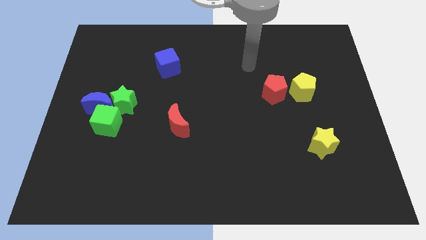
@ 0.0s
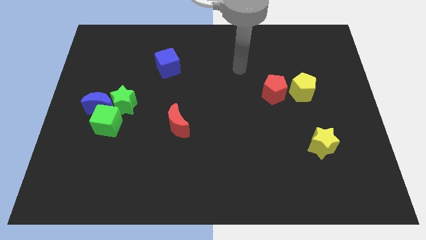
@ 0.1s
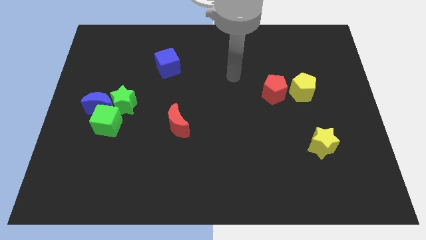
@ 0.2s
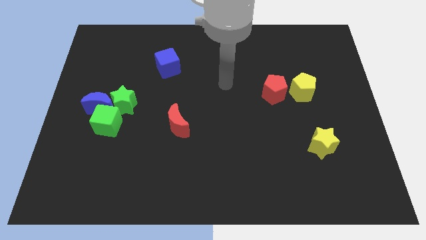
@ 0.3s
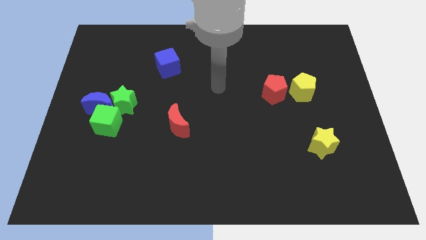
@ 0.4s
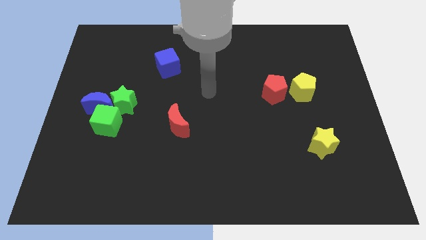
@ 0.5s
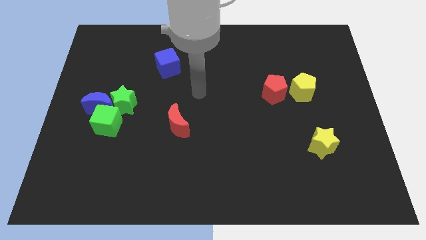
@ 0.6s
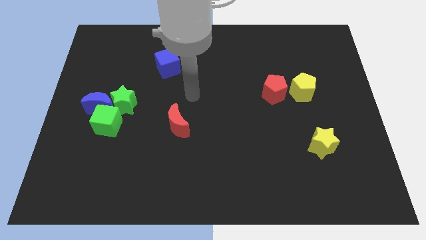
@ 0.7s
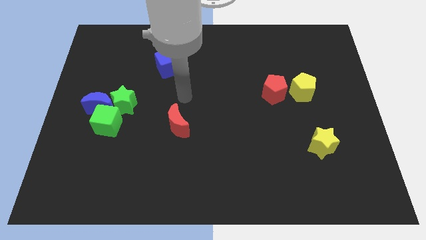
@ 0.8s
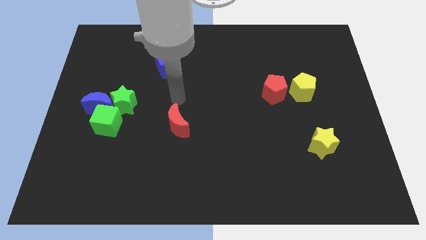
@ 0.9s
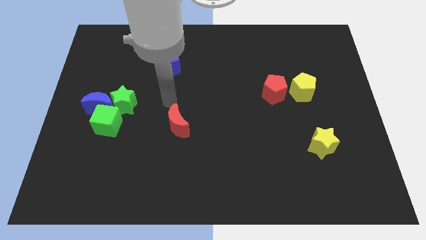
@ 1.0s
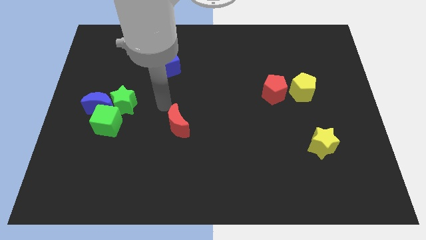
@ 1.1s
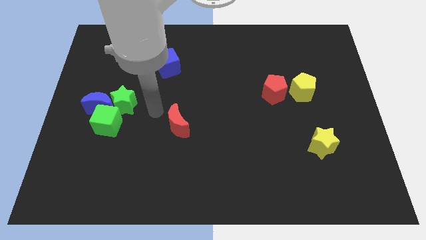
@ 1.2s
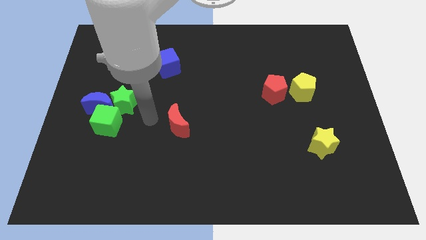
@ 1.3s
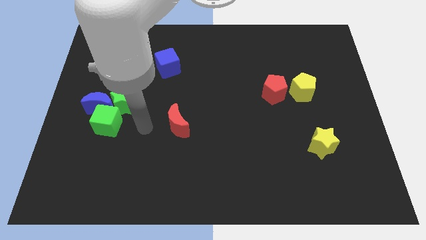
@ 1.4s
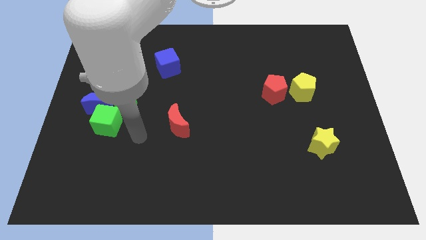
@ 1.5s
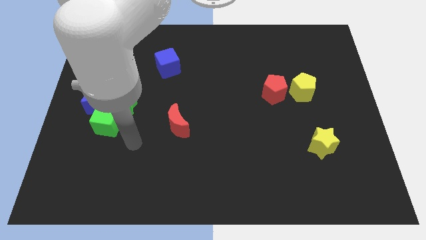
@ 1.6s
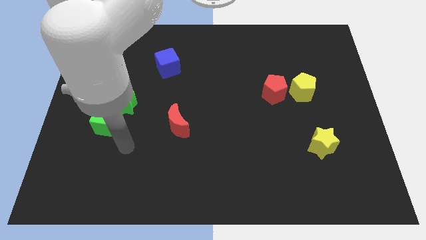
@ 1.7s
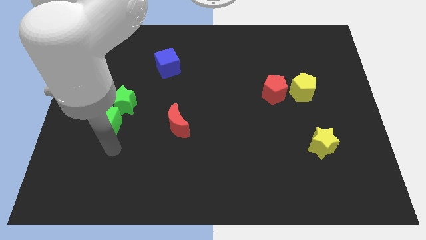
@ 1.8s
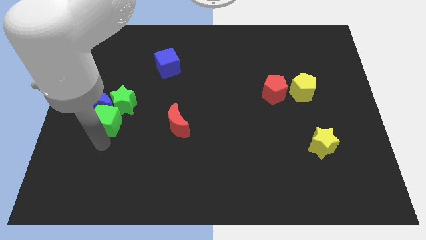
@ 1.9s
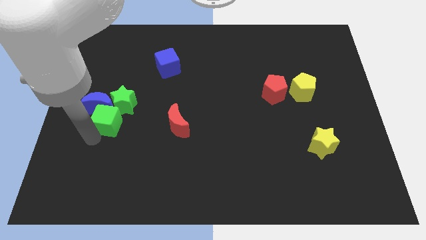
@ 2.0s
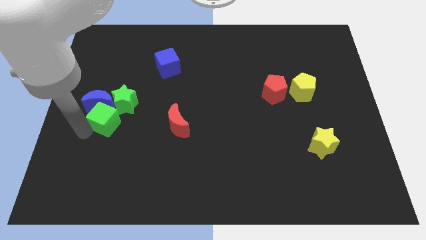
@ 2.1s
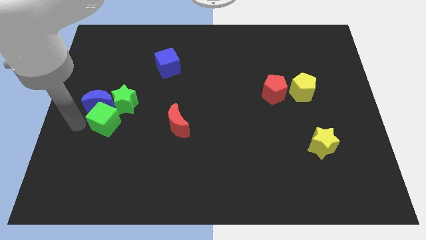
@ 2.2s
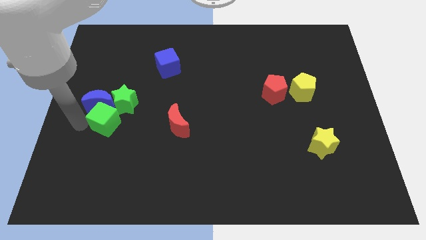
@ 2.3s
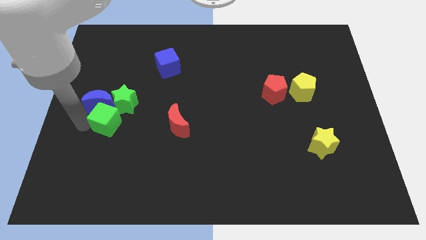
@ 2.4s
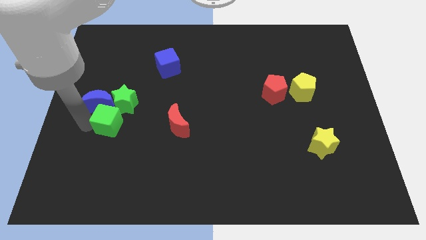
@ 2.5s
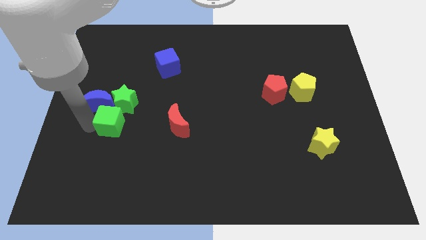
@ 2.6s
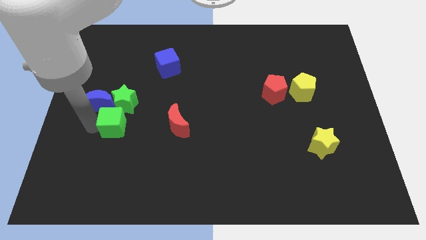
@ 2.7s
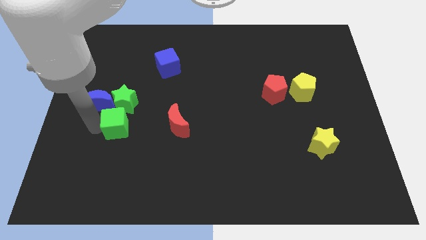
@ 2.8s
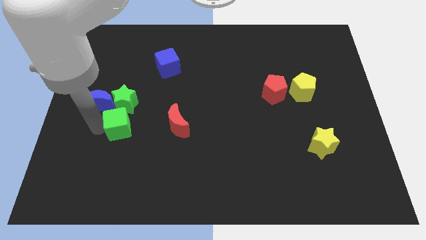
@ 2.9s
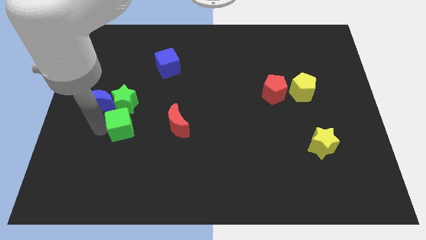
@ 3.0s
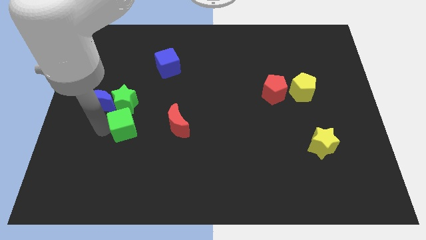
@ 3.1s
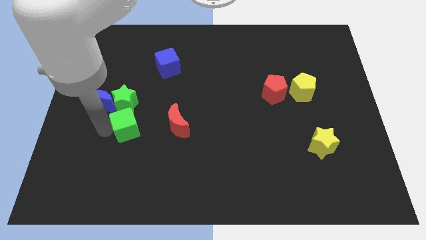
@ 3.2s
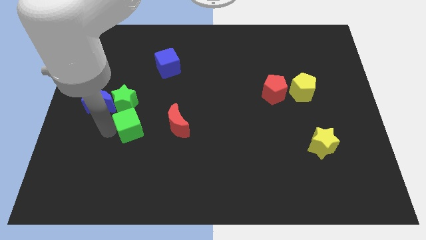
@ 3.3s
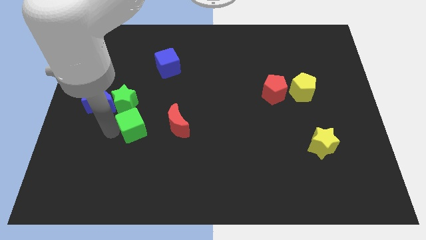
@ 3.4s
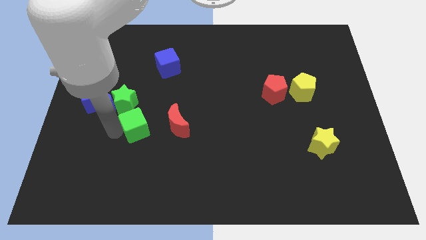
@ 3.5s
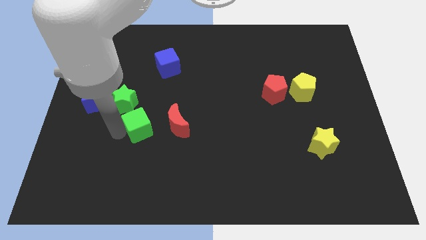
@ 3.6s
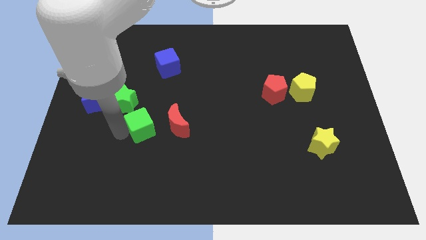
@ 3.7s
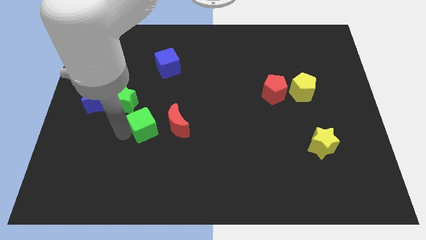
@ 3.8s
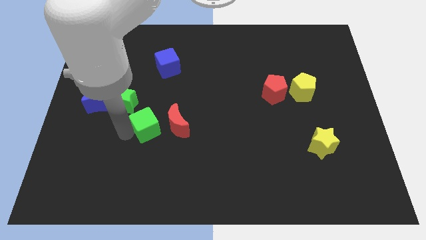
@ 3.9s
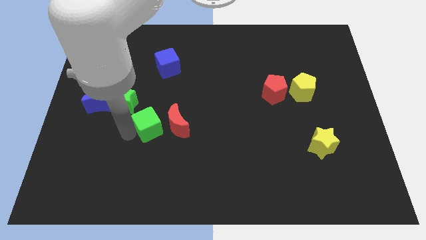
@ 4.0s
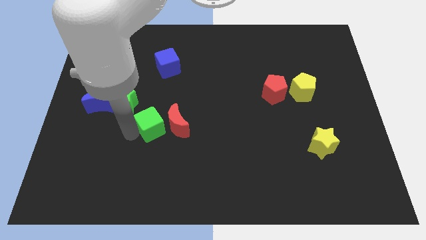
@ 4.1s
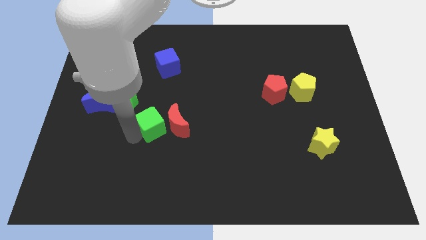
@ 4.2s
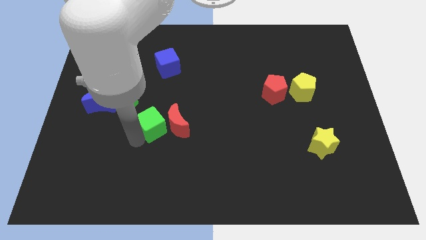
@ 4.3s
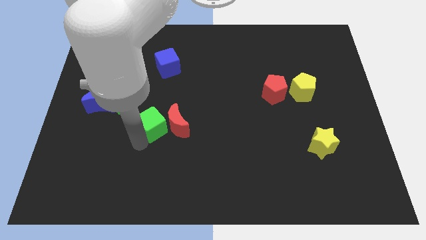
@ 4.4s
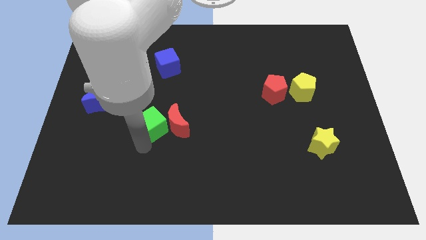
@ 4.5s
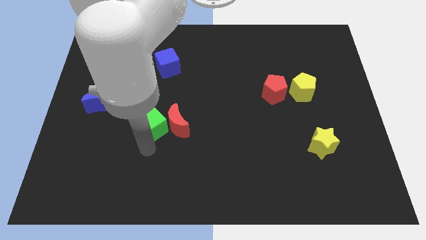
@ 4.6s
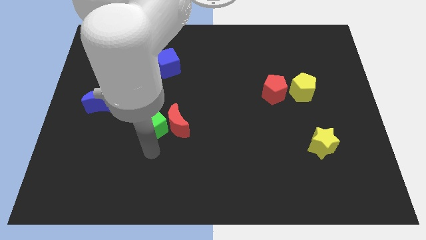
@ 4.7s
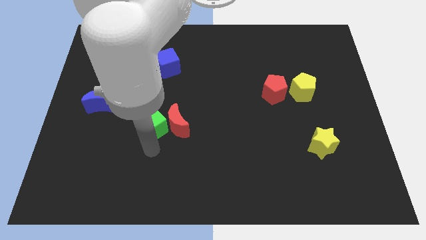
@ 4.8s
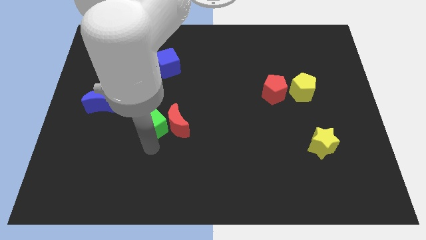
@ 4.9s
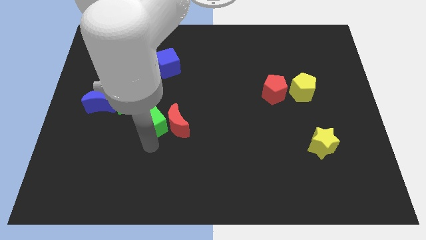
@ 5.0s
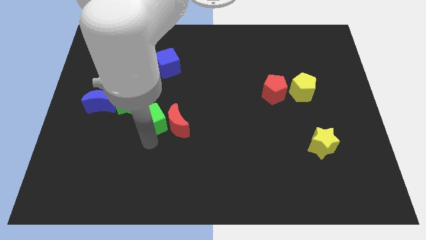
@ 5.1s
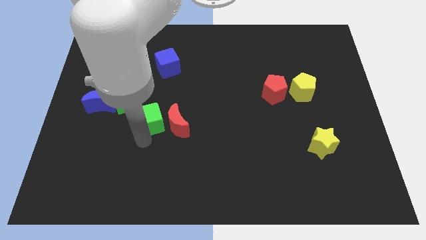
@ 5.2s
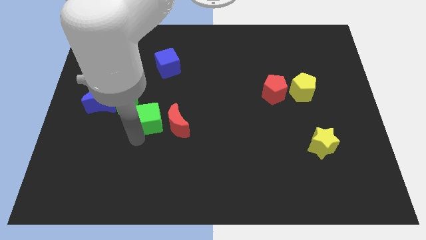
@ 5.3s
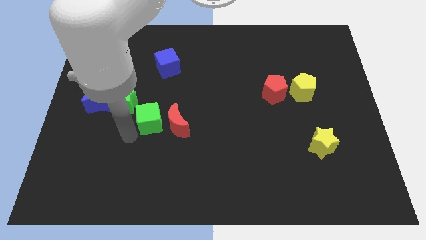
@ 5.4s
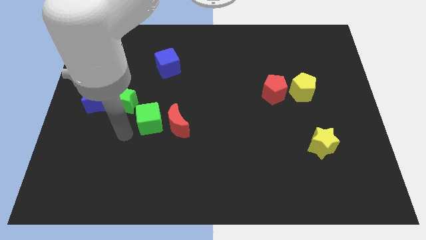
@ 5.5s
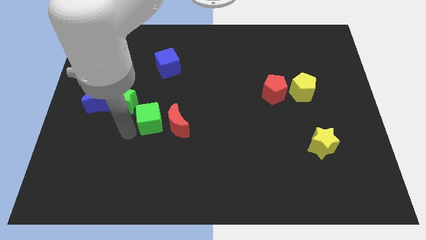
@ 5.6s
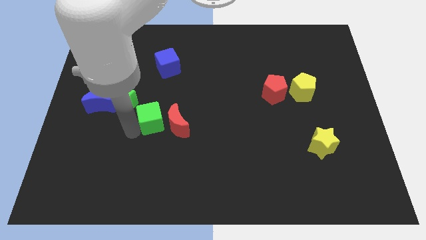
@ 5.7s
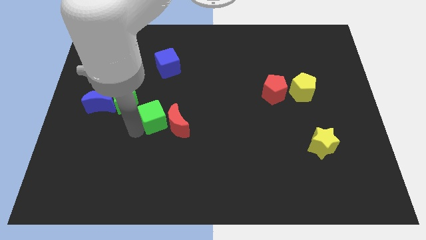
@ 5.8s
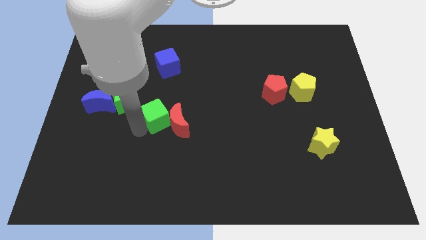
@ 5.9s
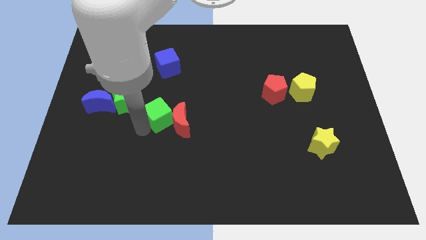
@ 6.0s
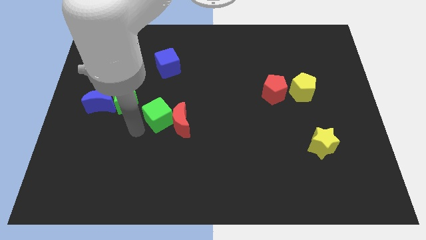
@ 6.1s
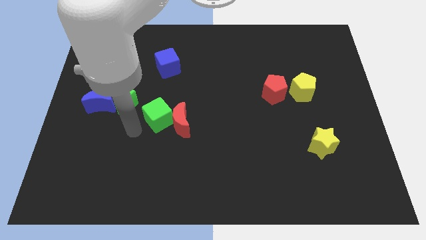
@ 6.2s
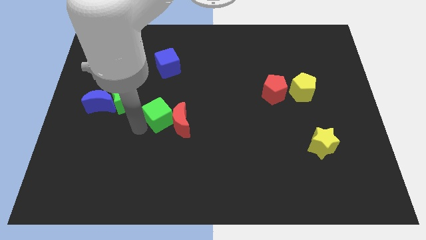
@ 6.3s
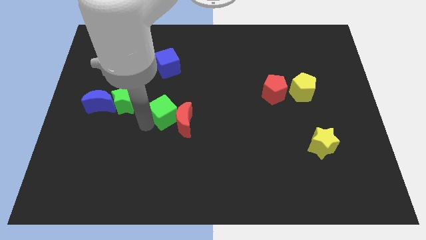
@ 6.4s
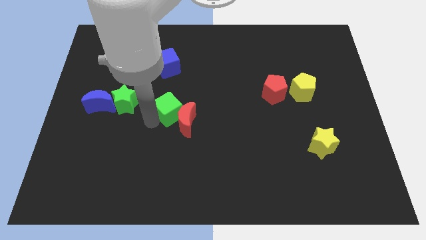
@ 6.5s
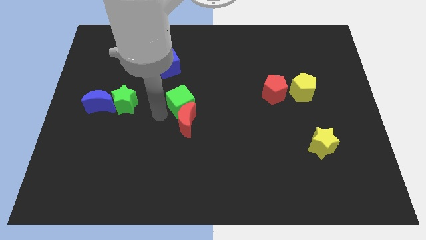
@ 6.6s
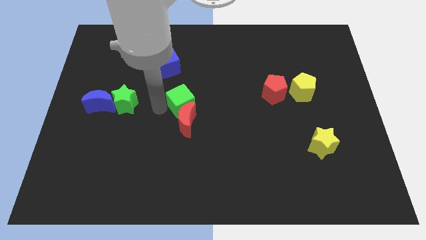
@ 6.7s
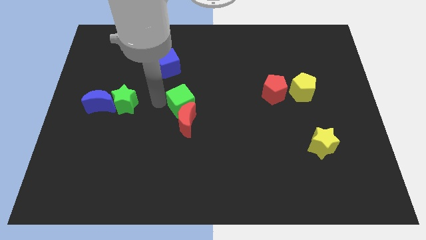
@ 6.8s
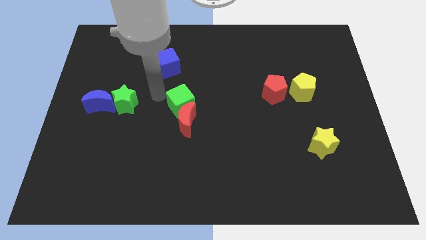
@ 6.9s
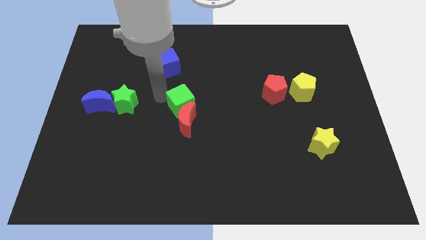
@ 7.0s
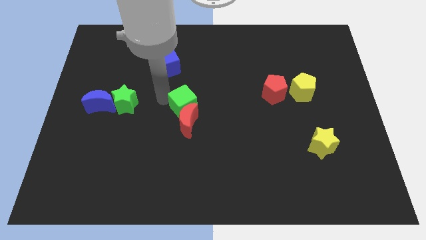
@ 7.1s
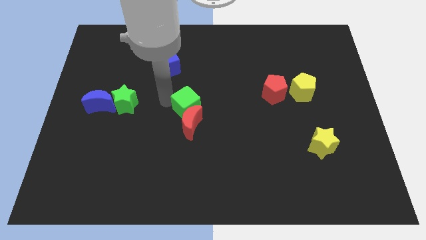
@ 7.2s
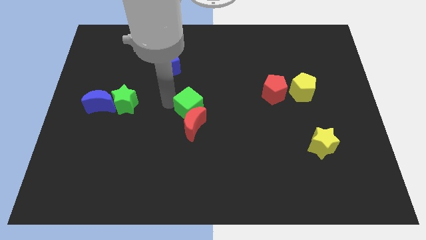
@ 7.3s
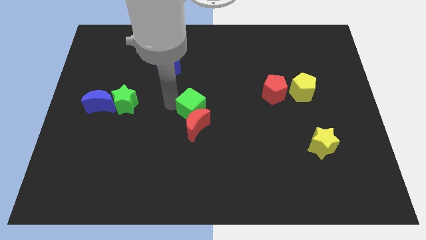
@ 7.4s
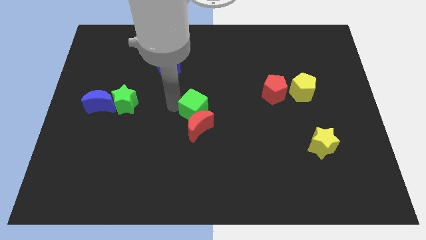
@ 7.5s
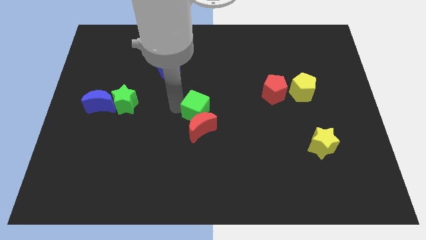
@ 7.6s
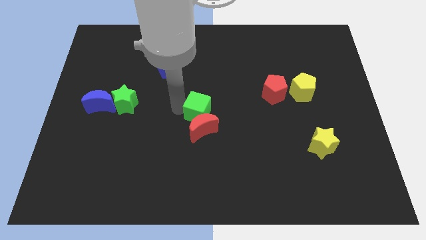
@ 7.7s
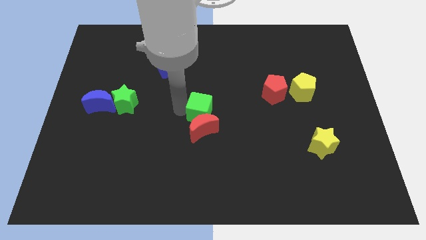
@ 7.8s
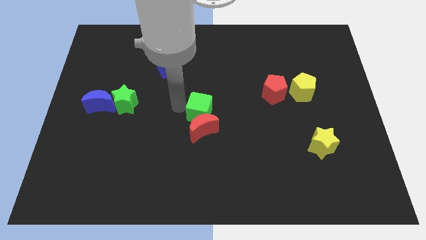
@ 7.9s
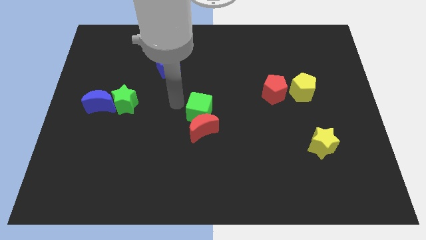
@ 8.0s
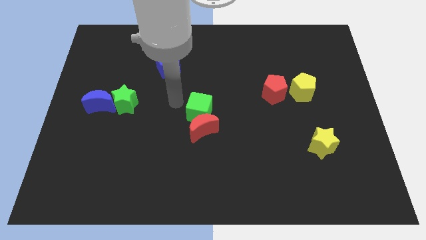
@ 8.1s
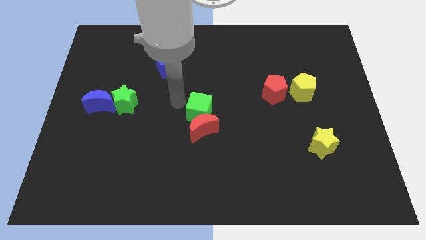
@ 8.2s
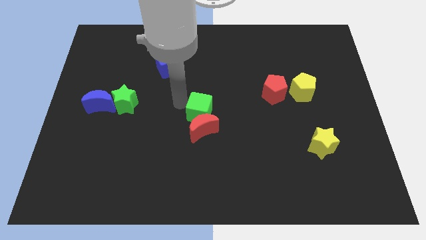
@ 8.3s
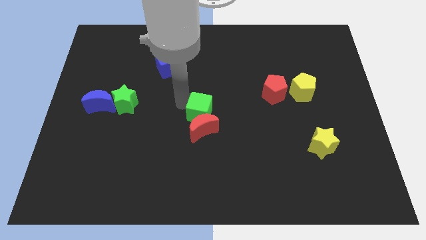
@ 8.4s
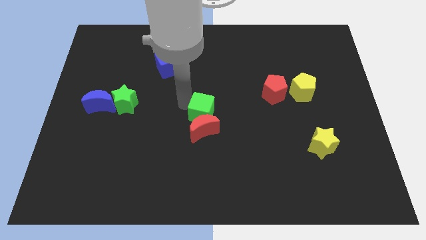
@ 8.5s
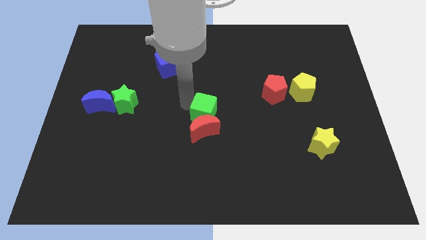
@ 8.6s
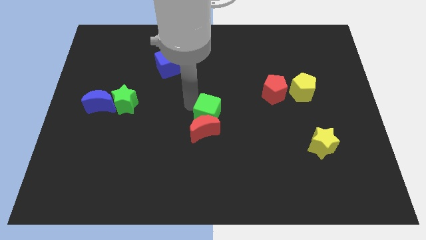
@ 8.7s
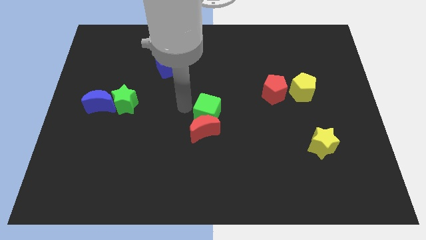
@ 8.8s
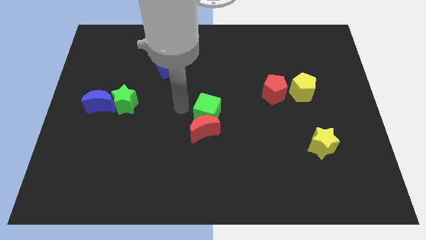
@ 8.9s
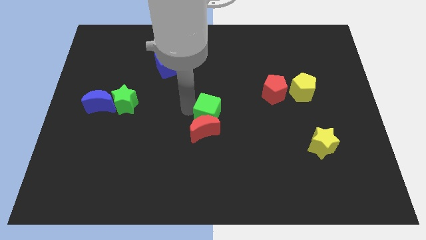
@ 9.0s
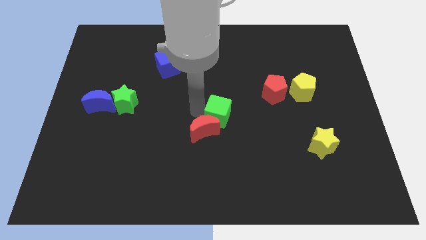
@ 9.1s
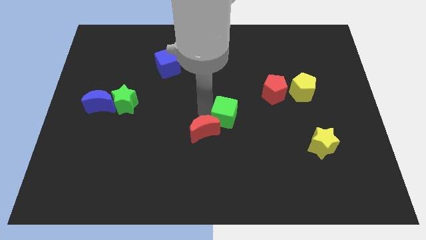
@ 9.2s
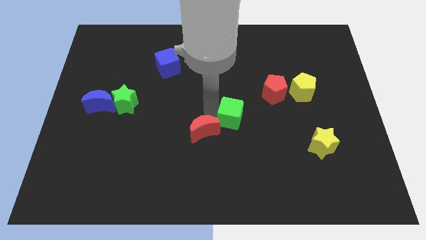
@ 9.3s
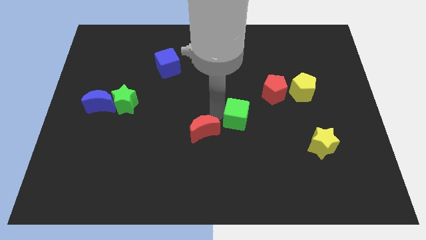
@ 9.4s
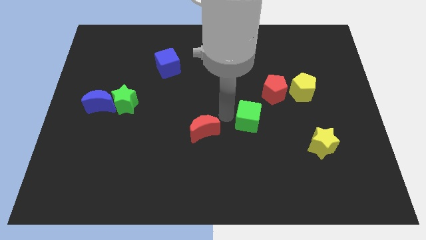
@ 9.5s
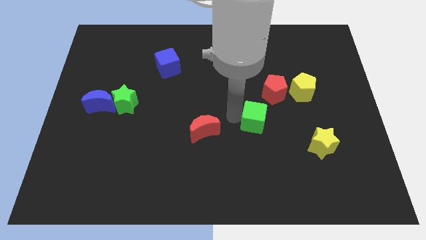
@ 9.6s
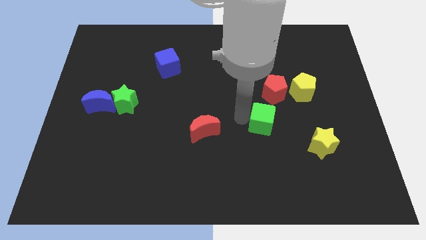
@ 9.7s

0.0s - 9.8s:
put the green cube below the red pentagon
